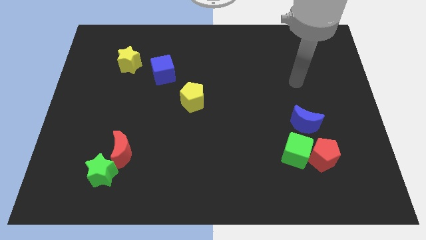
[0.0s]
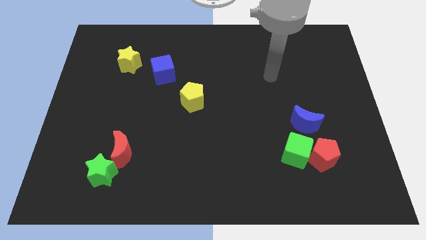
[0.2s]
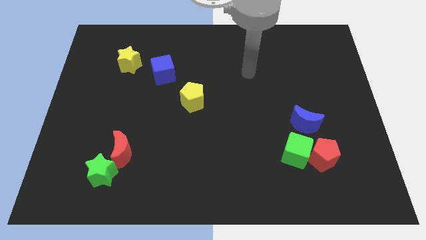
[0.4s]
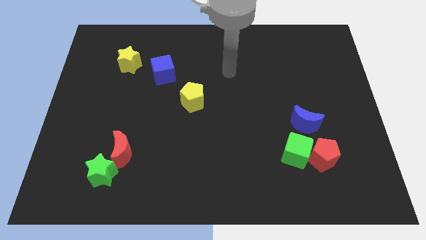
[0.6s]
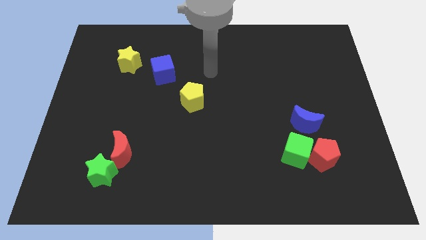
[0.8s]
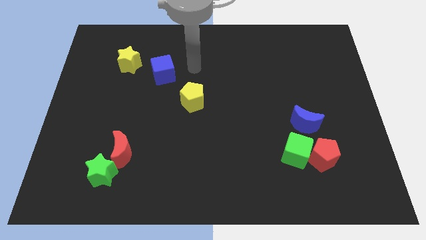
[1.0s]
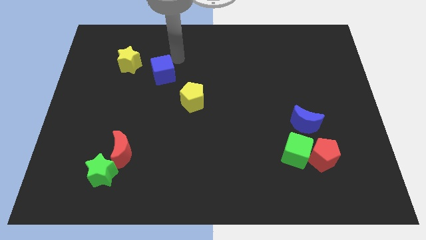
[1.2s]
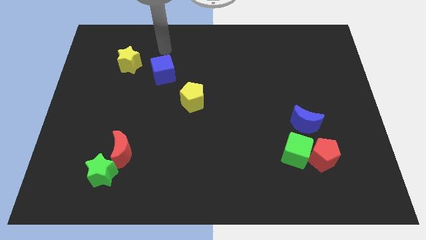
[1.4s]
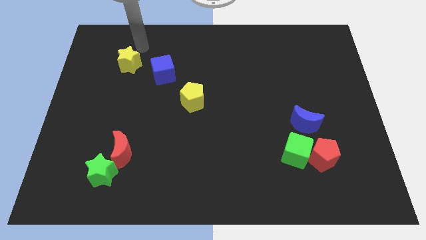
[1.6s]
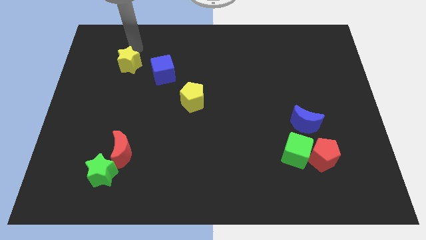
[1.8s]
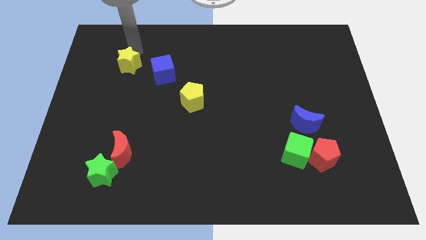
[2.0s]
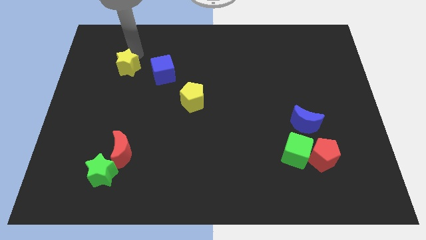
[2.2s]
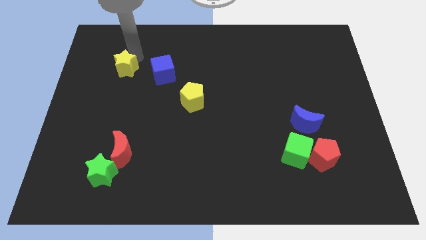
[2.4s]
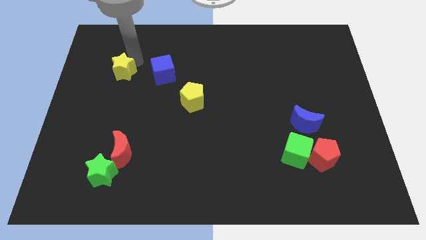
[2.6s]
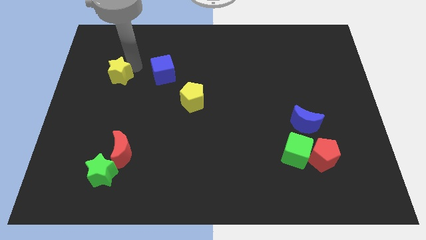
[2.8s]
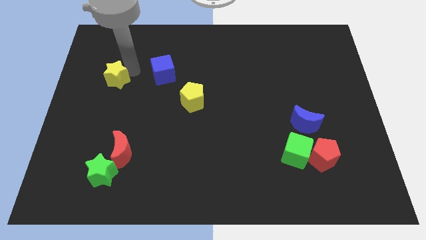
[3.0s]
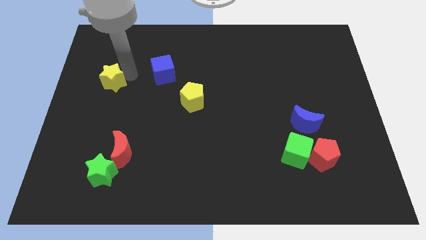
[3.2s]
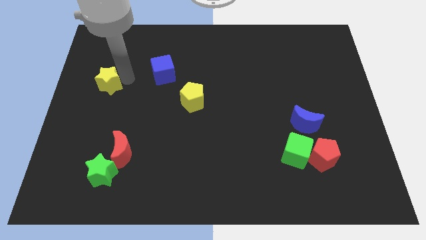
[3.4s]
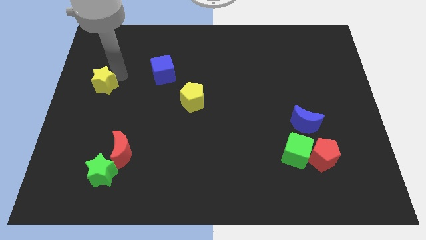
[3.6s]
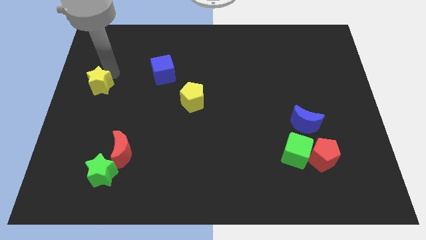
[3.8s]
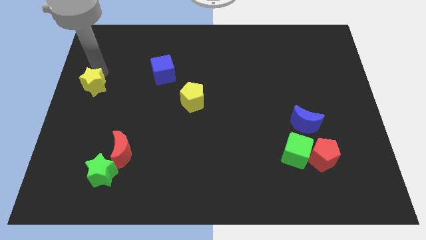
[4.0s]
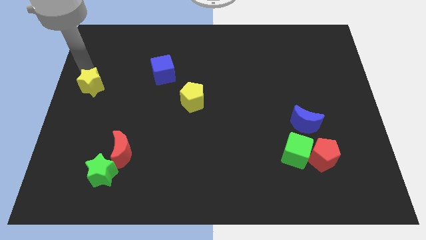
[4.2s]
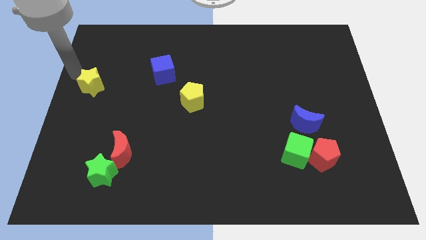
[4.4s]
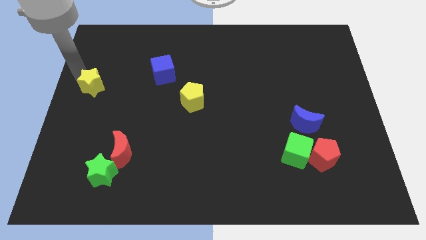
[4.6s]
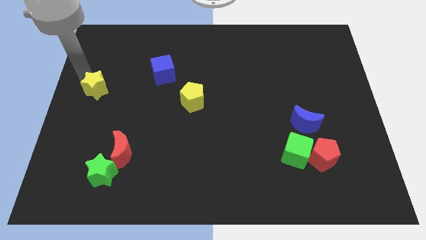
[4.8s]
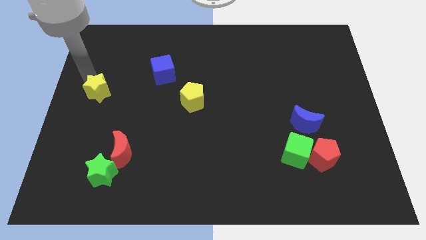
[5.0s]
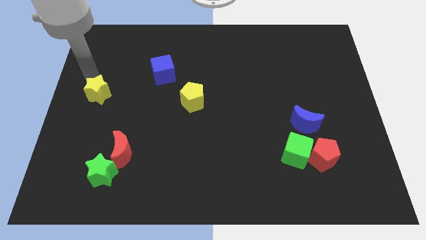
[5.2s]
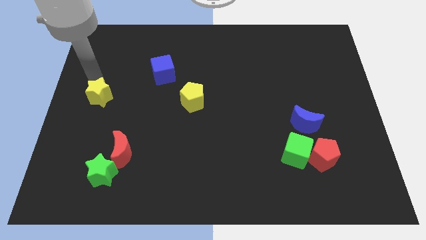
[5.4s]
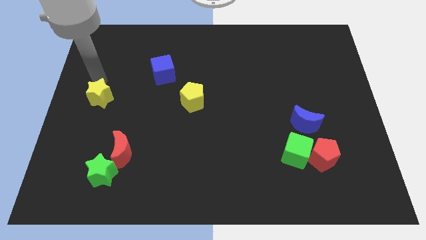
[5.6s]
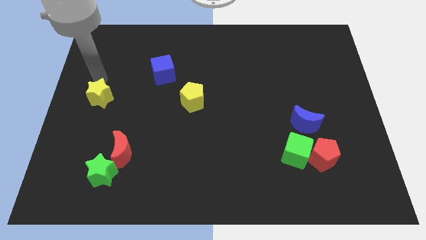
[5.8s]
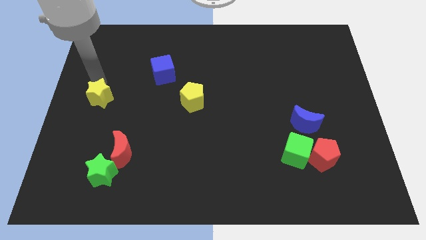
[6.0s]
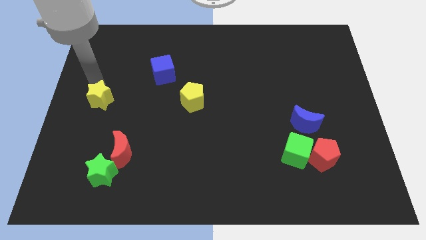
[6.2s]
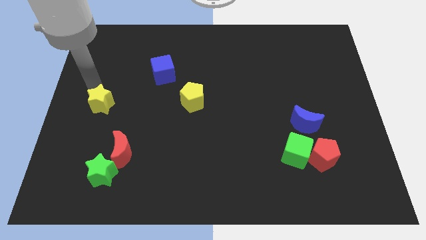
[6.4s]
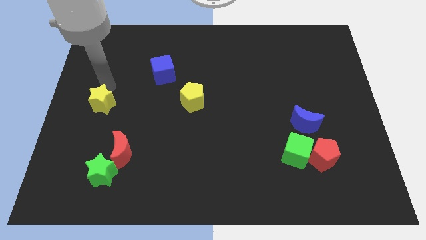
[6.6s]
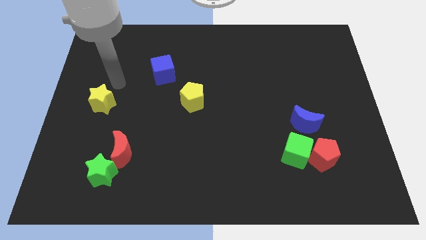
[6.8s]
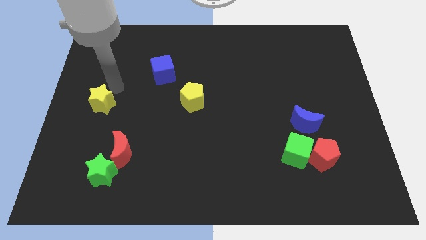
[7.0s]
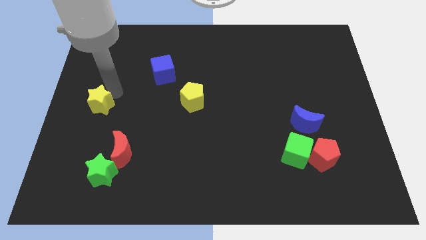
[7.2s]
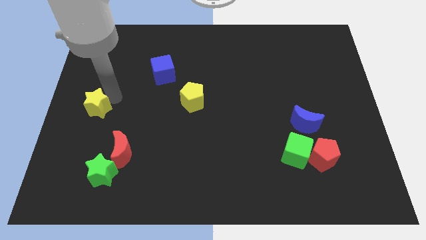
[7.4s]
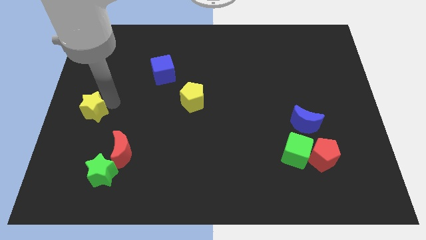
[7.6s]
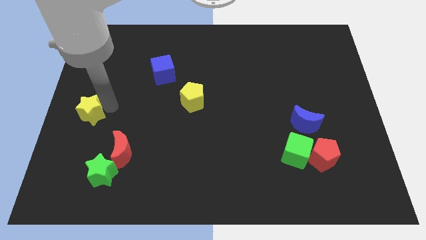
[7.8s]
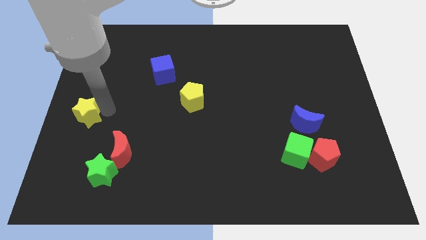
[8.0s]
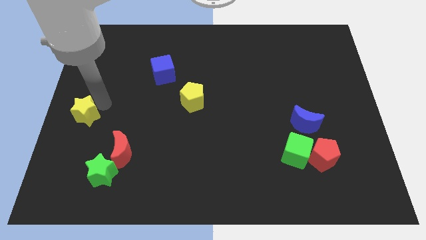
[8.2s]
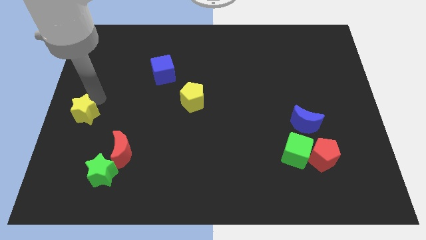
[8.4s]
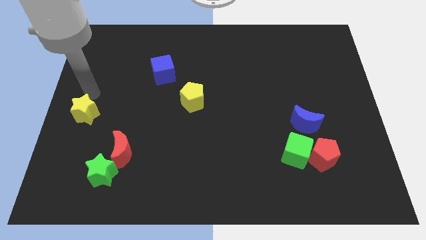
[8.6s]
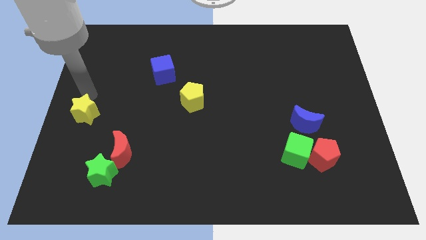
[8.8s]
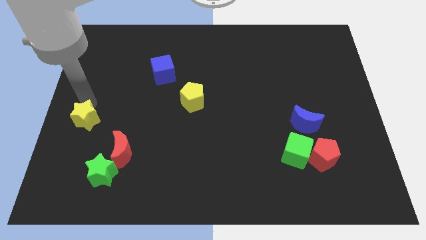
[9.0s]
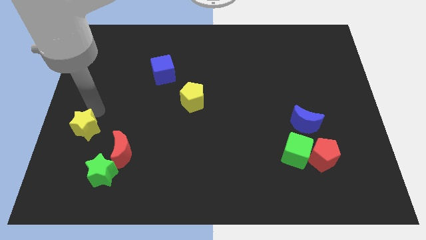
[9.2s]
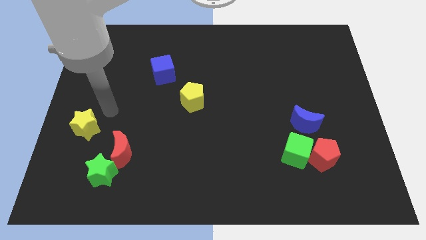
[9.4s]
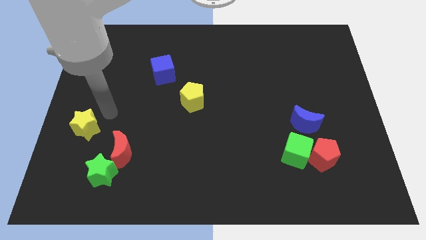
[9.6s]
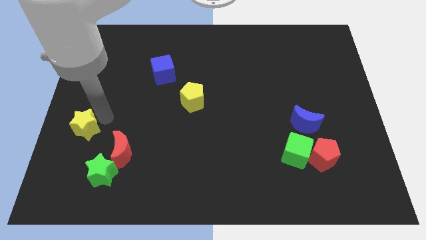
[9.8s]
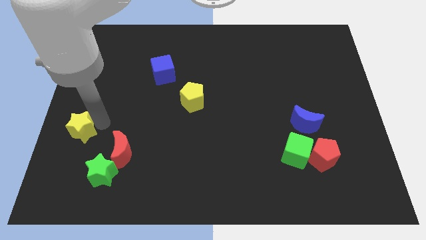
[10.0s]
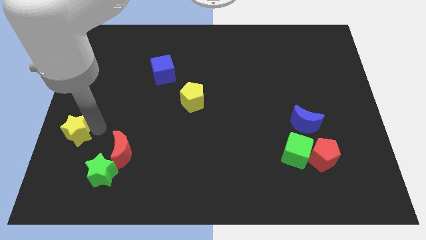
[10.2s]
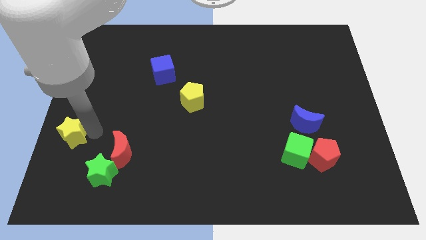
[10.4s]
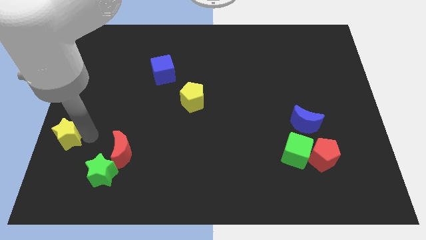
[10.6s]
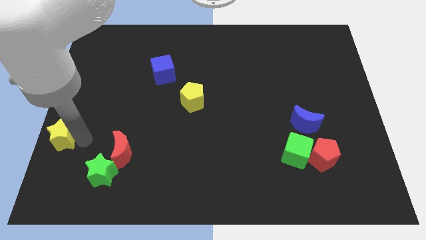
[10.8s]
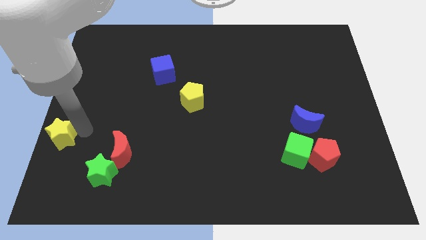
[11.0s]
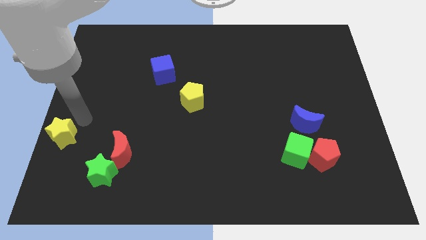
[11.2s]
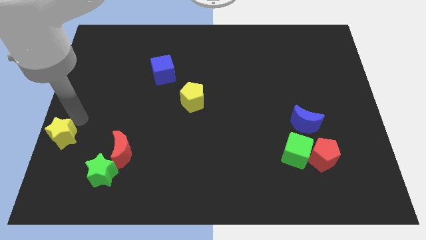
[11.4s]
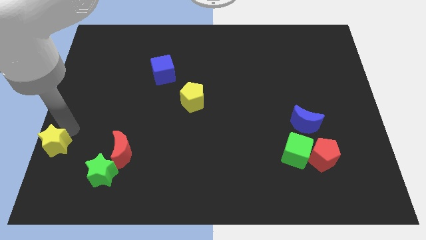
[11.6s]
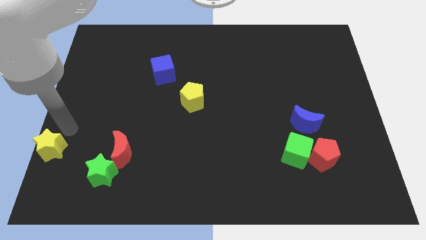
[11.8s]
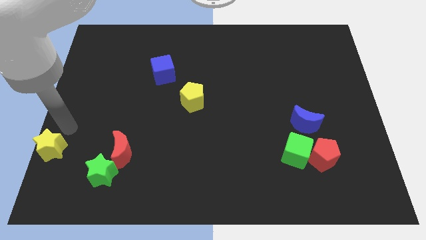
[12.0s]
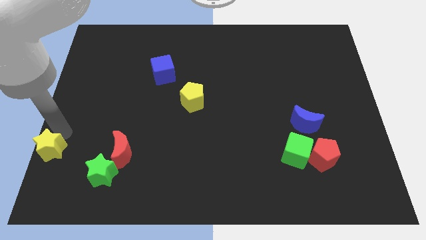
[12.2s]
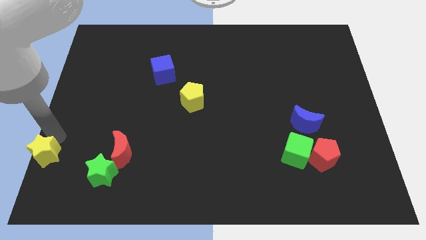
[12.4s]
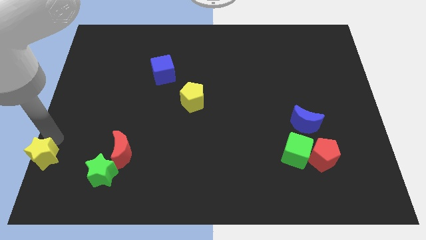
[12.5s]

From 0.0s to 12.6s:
put the yellow star to the bottom left of the board

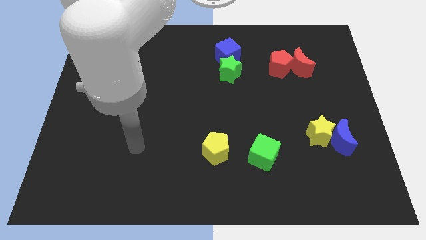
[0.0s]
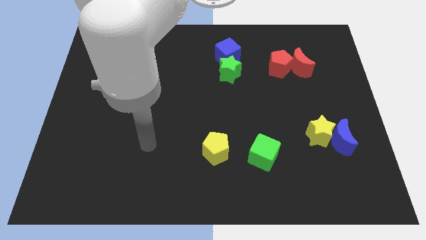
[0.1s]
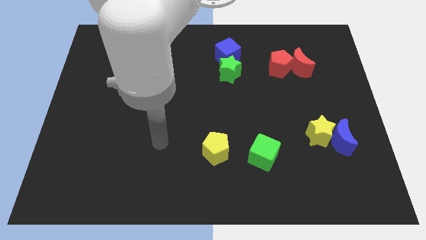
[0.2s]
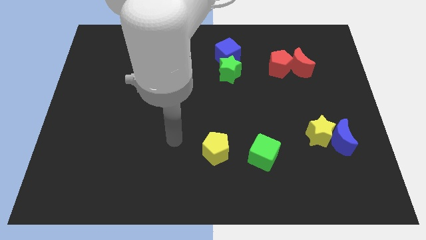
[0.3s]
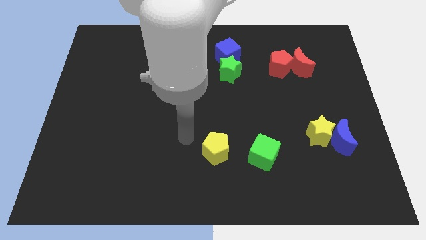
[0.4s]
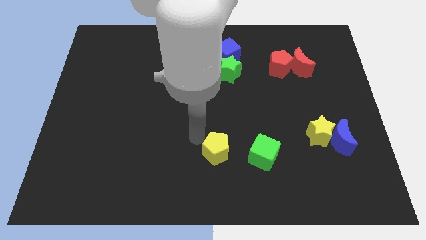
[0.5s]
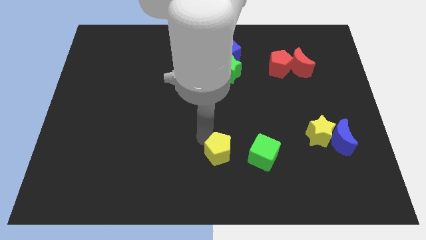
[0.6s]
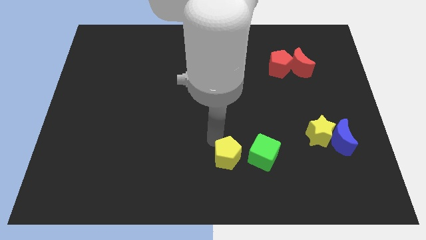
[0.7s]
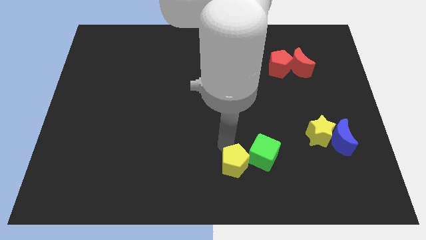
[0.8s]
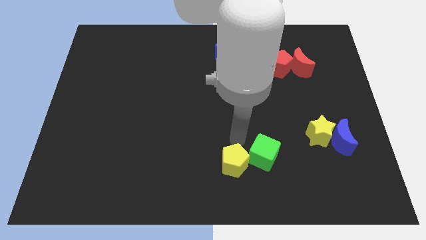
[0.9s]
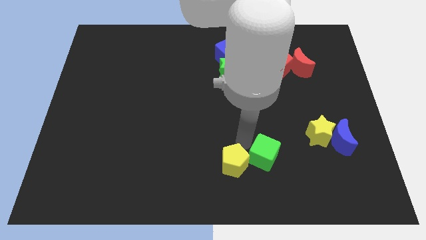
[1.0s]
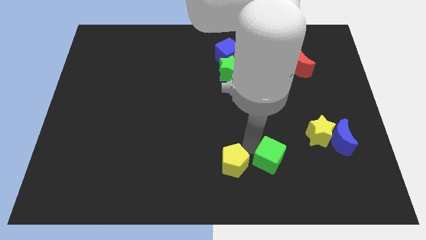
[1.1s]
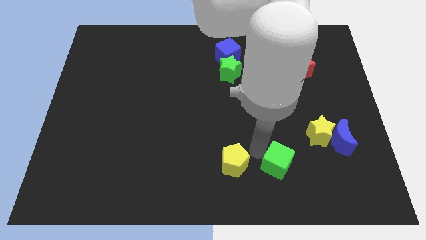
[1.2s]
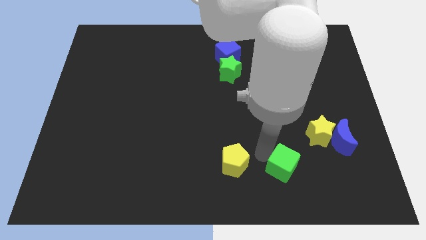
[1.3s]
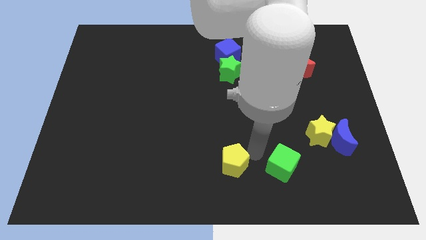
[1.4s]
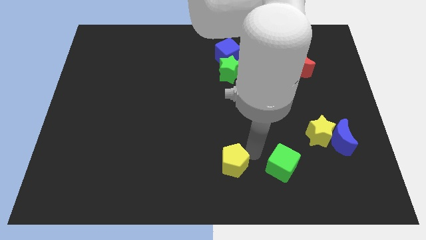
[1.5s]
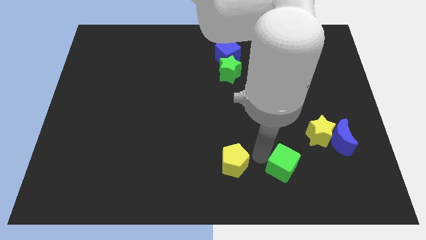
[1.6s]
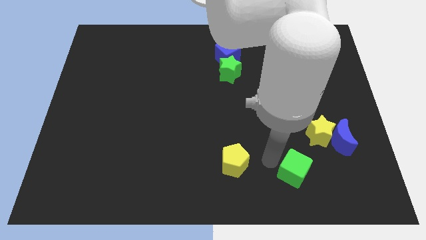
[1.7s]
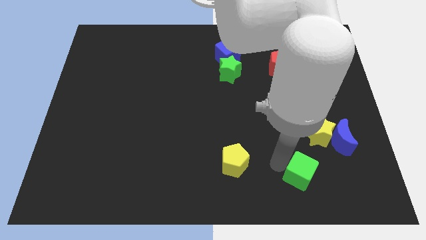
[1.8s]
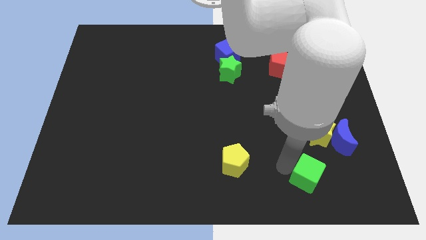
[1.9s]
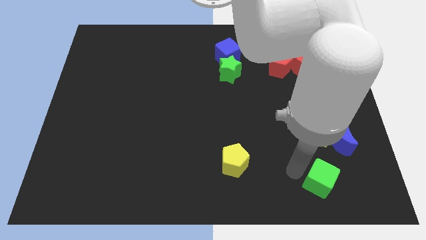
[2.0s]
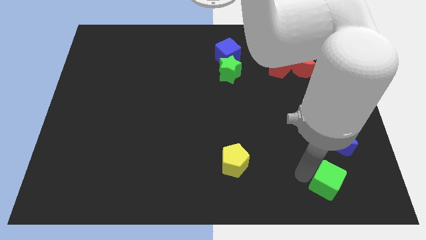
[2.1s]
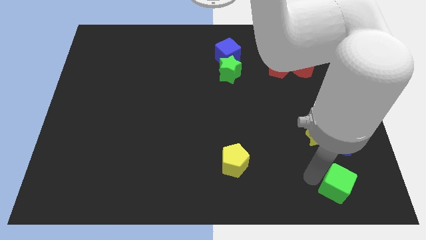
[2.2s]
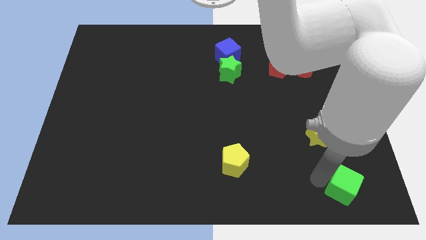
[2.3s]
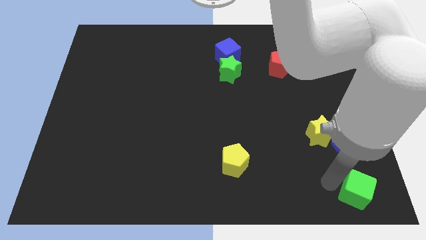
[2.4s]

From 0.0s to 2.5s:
push the green cube to the lower right corner
